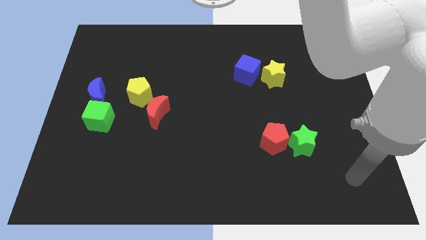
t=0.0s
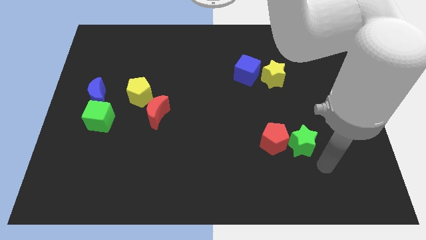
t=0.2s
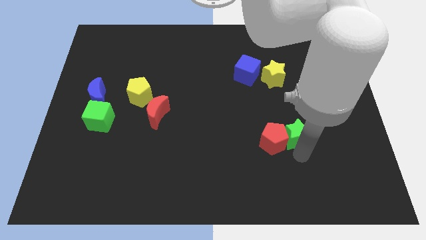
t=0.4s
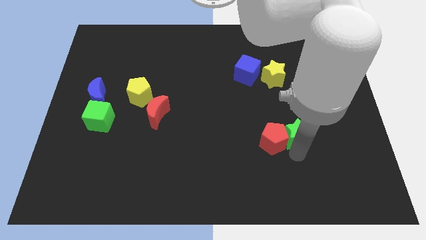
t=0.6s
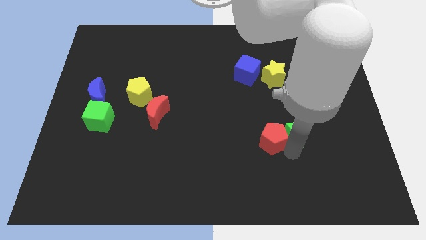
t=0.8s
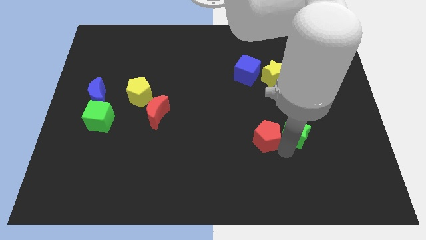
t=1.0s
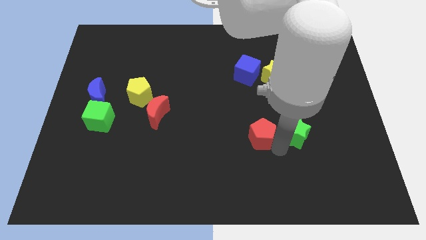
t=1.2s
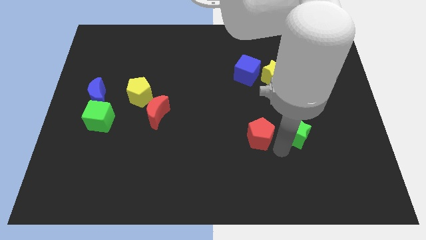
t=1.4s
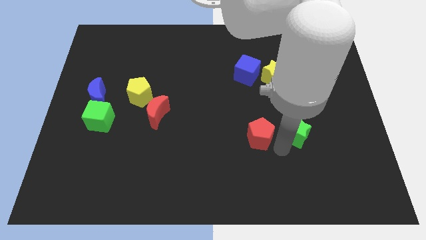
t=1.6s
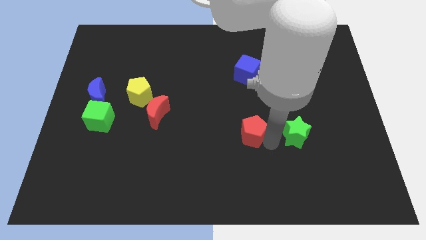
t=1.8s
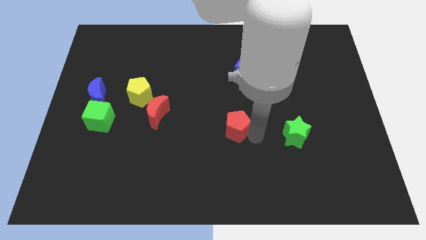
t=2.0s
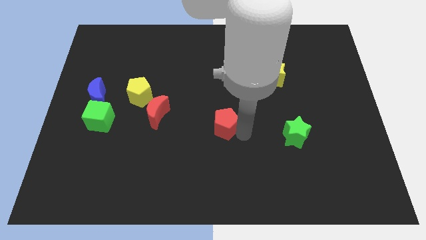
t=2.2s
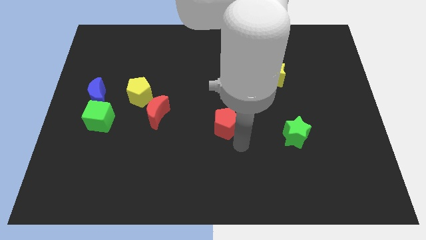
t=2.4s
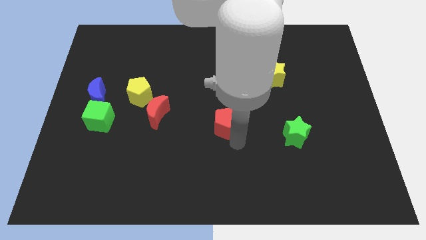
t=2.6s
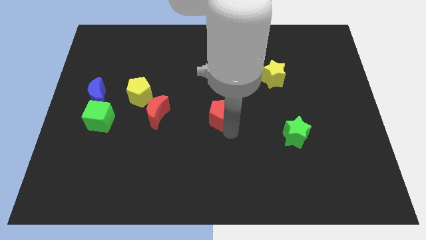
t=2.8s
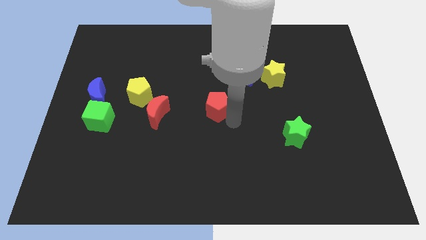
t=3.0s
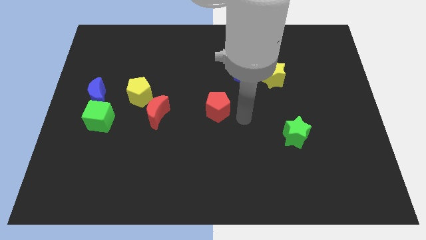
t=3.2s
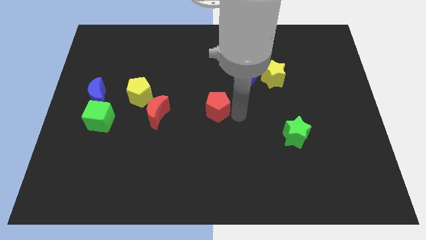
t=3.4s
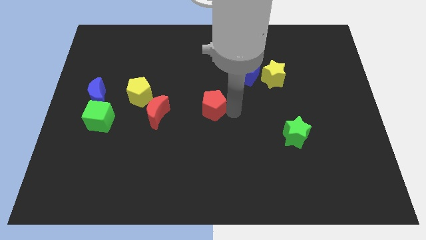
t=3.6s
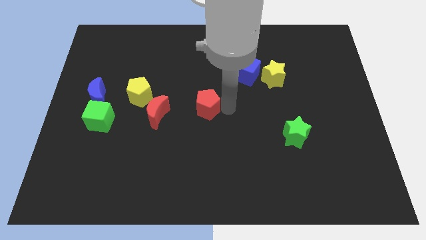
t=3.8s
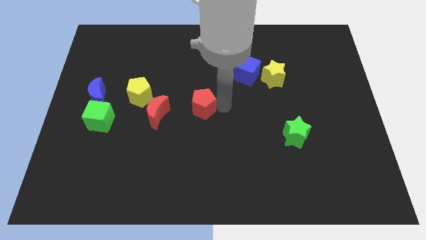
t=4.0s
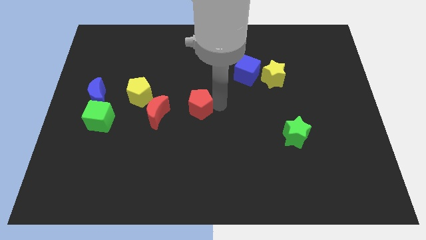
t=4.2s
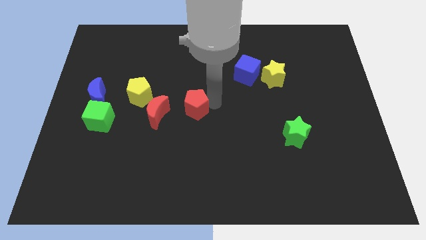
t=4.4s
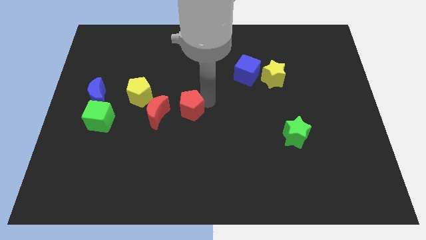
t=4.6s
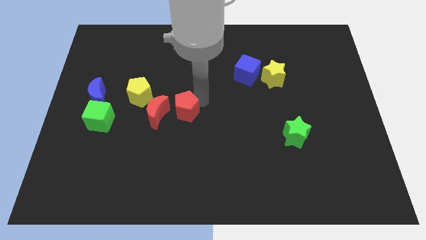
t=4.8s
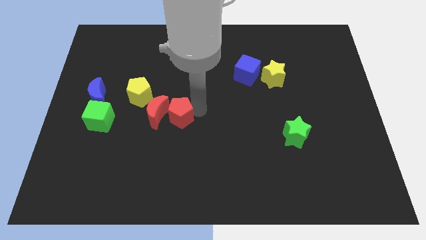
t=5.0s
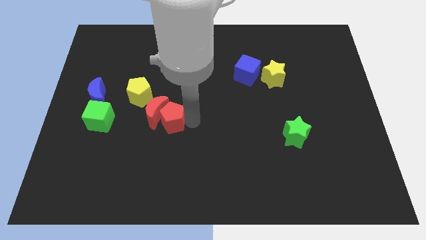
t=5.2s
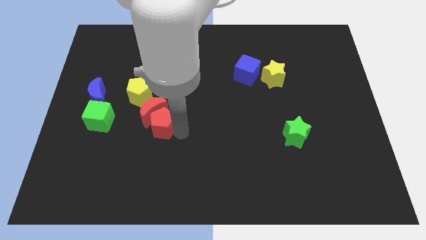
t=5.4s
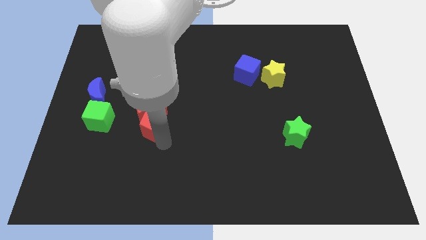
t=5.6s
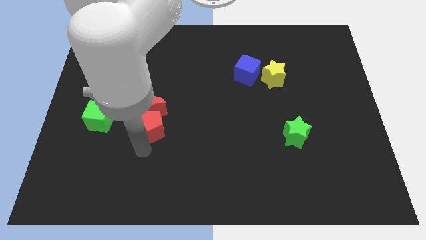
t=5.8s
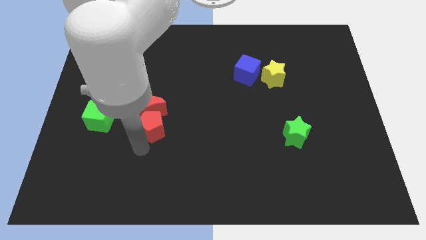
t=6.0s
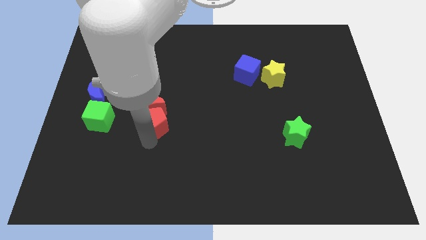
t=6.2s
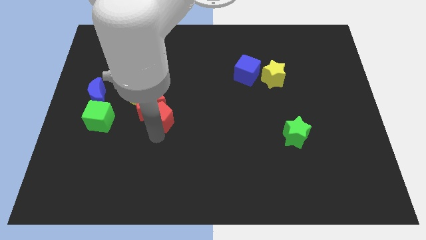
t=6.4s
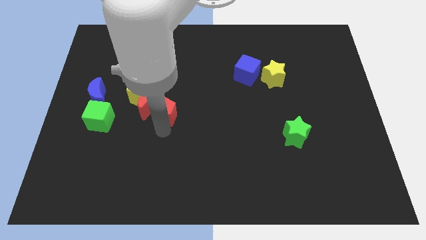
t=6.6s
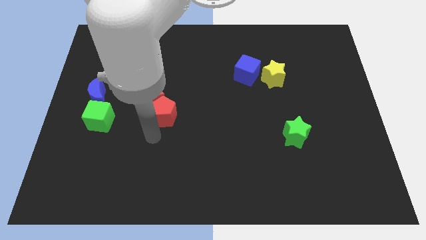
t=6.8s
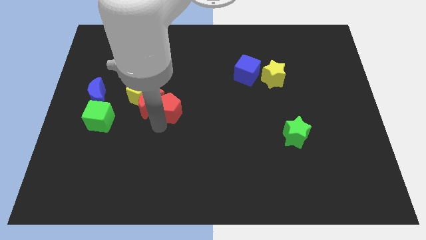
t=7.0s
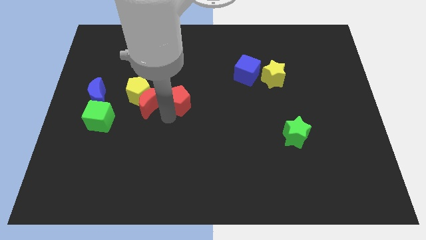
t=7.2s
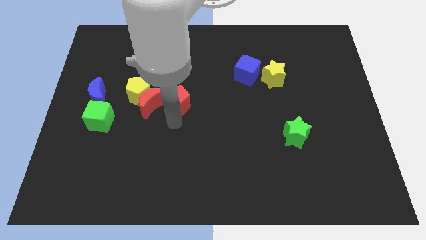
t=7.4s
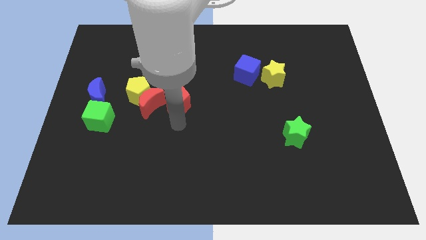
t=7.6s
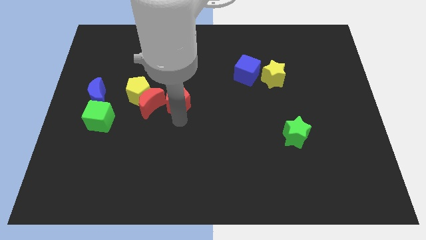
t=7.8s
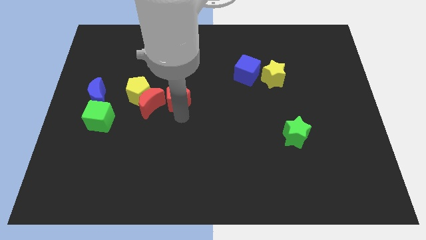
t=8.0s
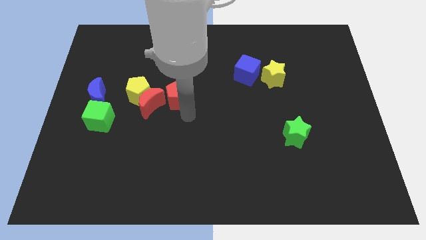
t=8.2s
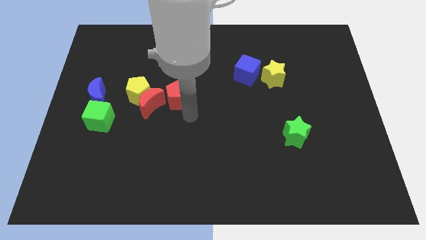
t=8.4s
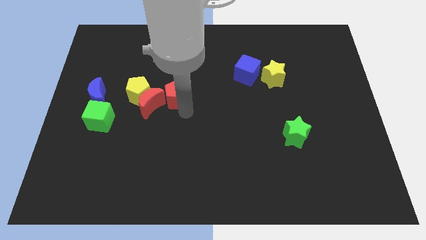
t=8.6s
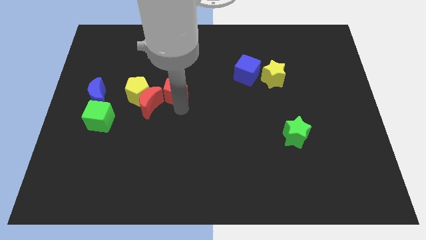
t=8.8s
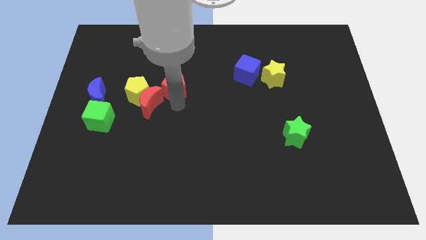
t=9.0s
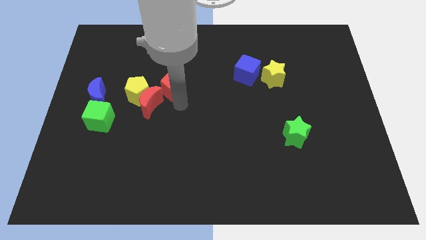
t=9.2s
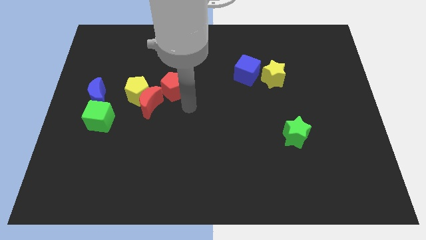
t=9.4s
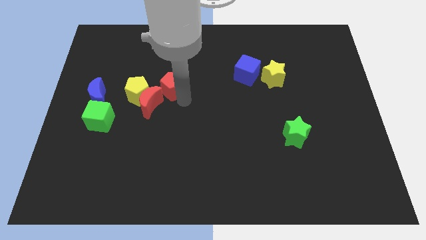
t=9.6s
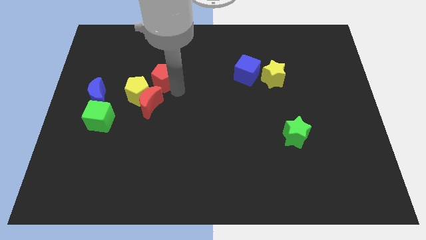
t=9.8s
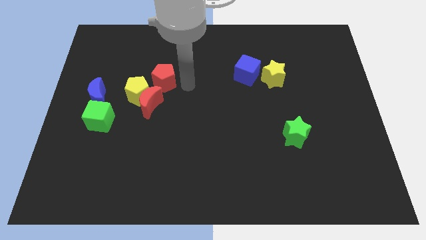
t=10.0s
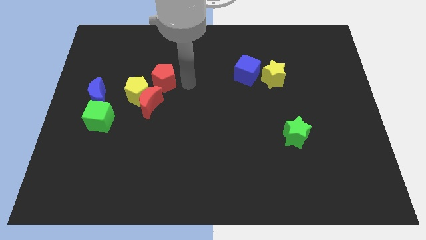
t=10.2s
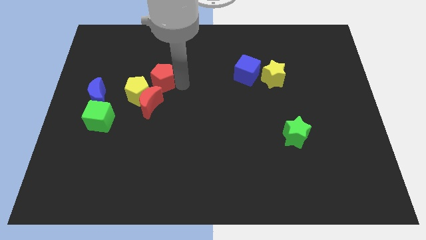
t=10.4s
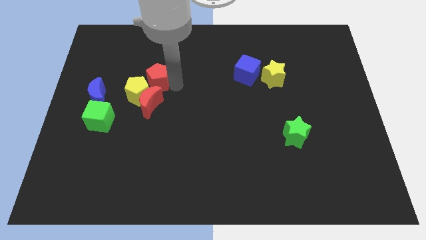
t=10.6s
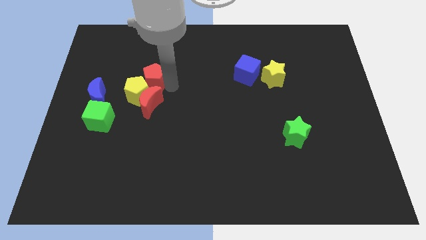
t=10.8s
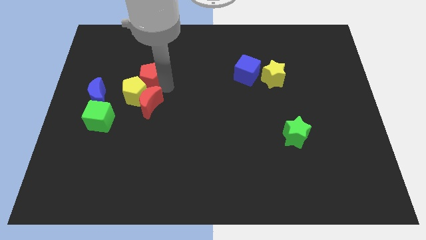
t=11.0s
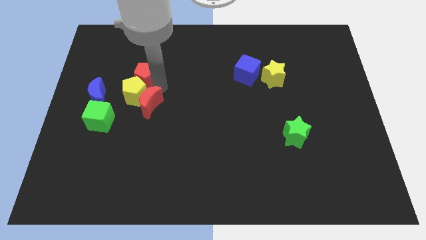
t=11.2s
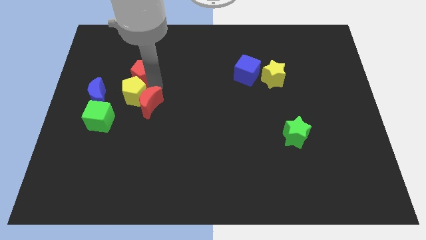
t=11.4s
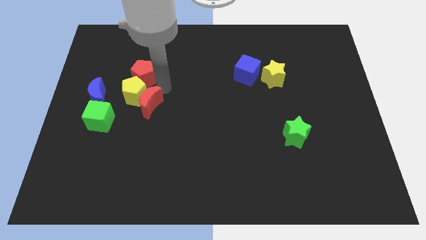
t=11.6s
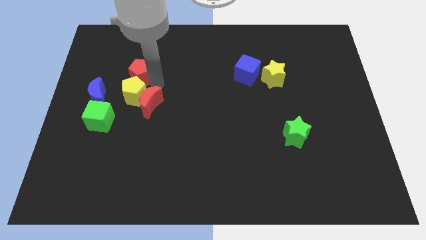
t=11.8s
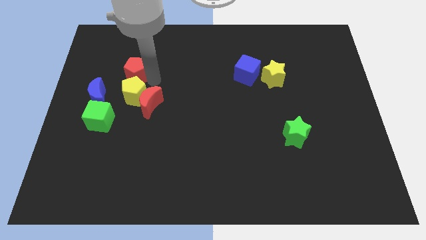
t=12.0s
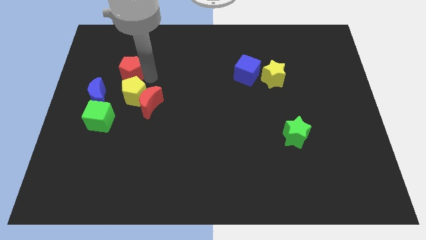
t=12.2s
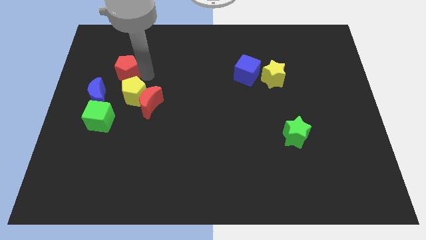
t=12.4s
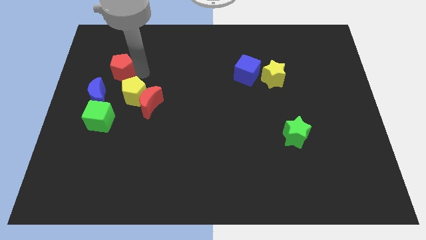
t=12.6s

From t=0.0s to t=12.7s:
move the red pentagon to the top of the blue moon

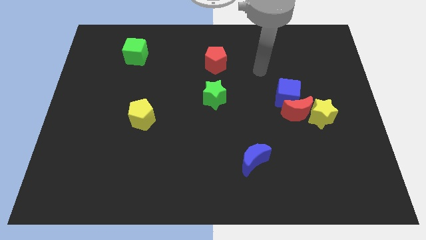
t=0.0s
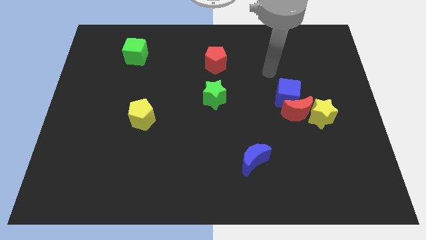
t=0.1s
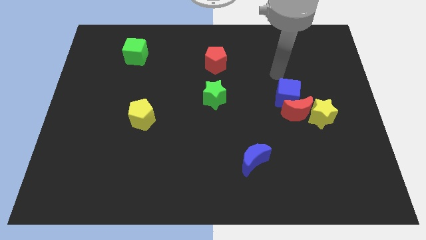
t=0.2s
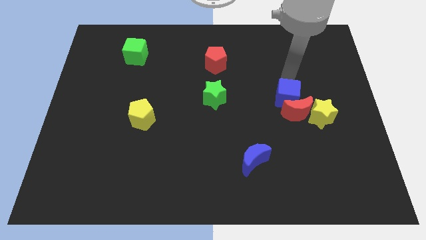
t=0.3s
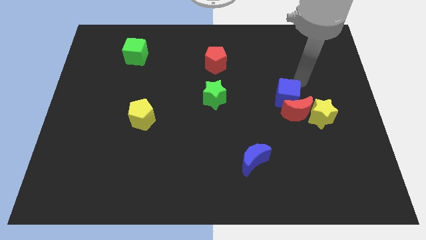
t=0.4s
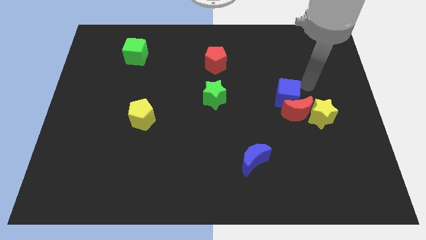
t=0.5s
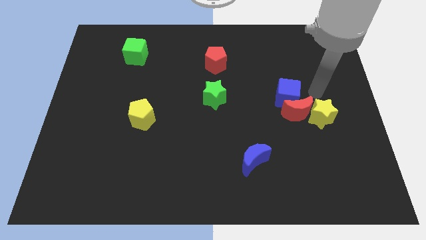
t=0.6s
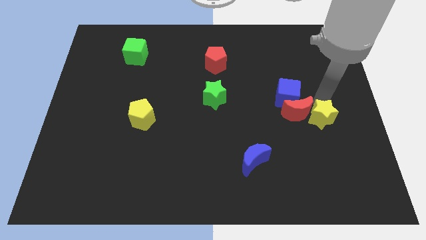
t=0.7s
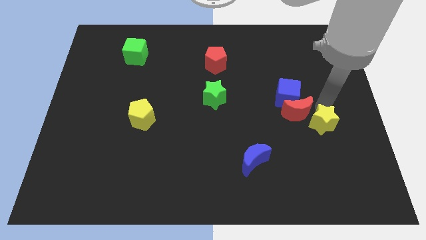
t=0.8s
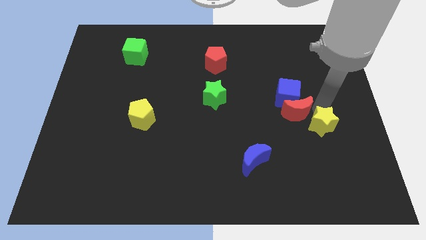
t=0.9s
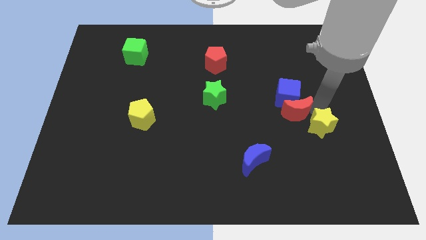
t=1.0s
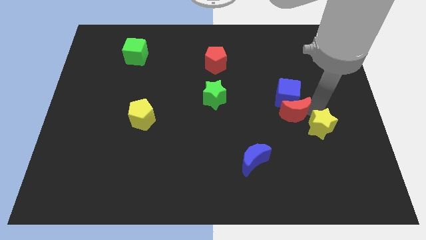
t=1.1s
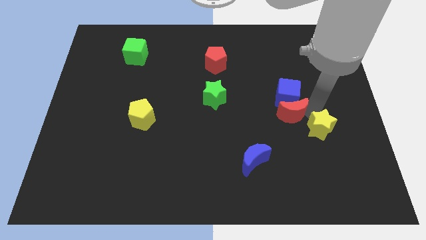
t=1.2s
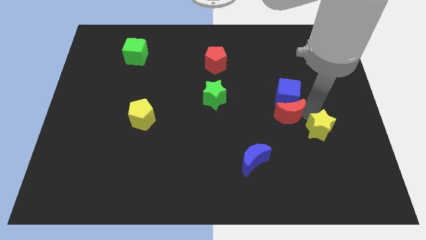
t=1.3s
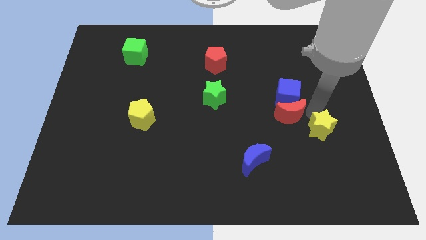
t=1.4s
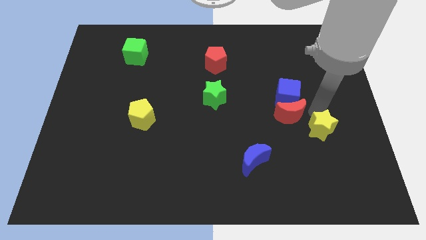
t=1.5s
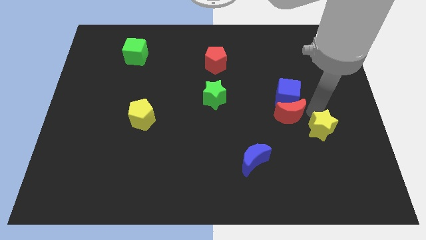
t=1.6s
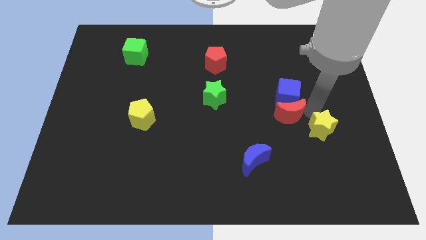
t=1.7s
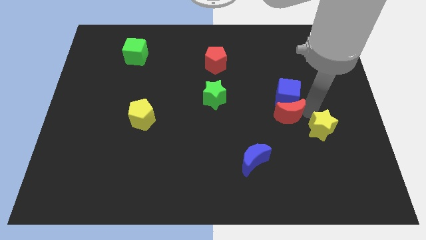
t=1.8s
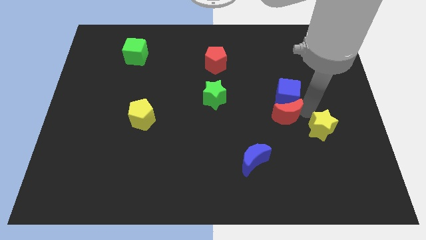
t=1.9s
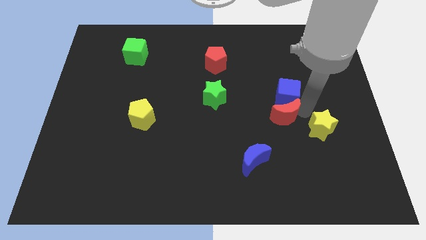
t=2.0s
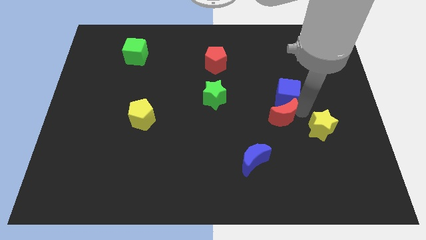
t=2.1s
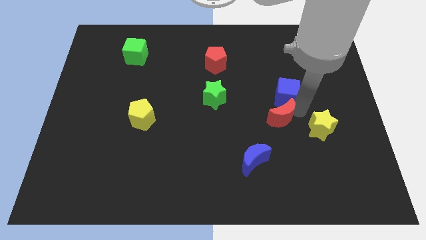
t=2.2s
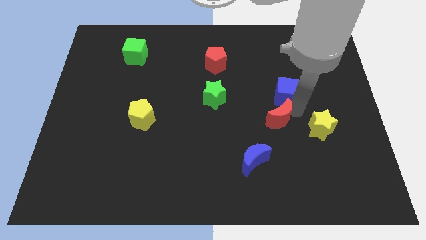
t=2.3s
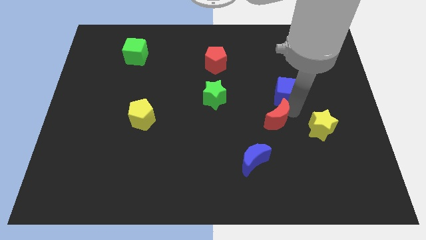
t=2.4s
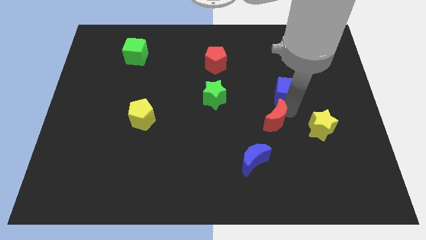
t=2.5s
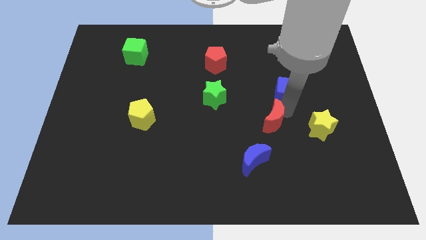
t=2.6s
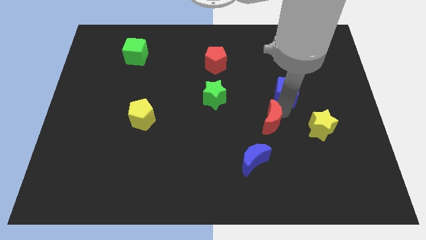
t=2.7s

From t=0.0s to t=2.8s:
slide the red moon to the top side of the blue moon
